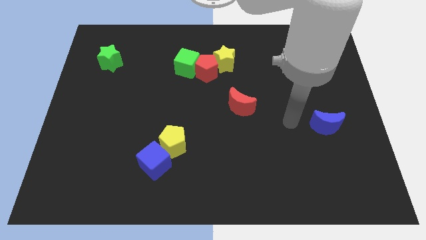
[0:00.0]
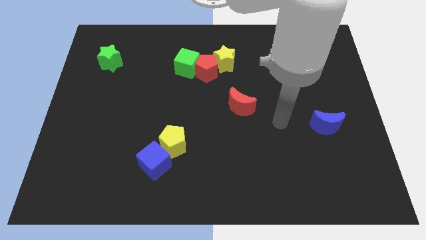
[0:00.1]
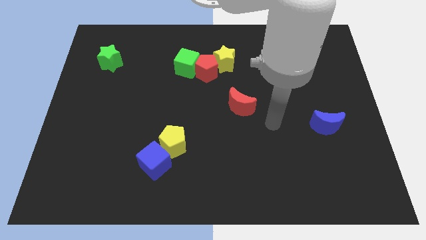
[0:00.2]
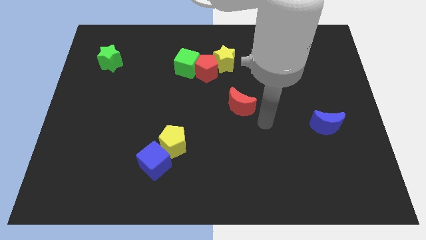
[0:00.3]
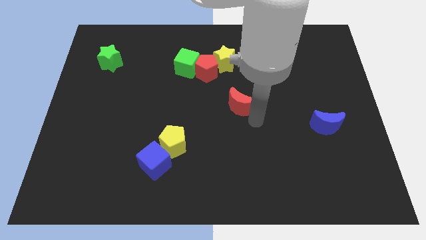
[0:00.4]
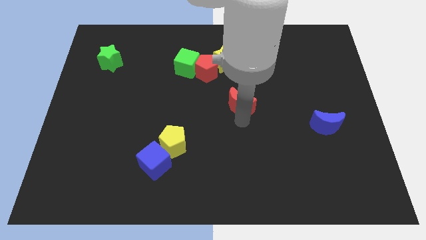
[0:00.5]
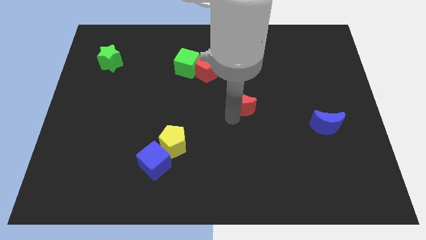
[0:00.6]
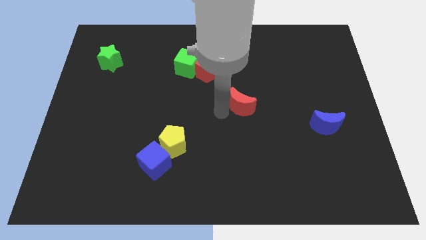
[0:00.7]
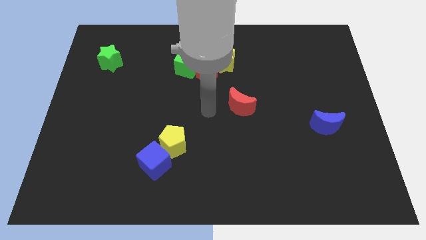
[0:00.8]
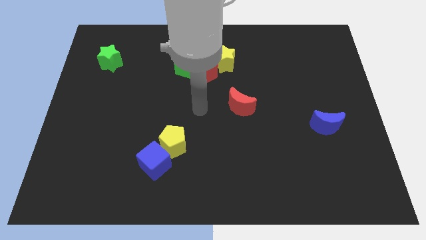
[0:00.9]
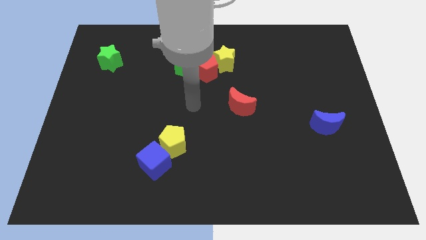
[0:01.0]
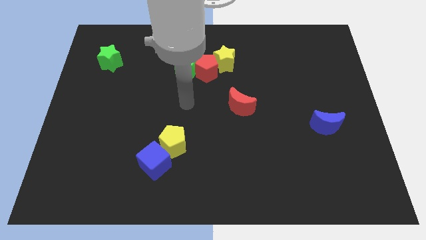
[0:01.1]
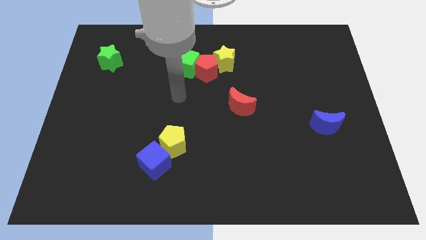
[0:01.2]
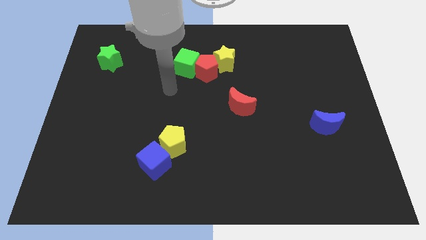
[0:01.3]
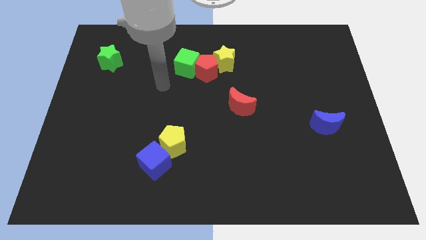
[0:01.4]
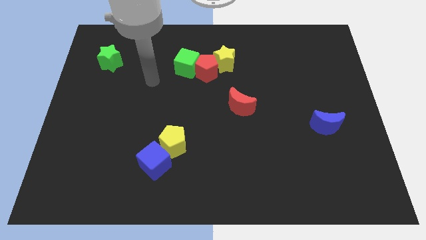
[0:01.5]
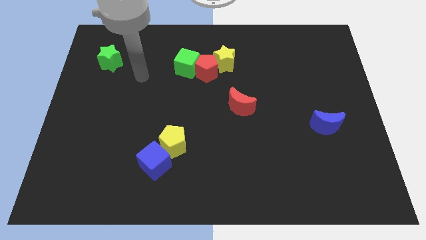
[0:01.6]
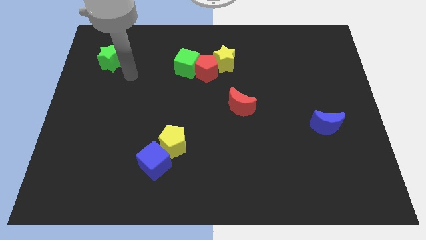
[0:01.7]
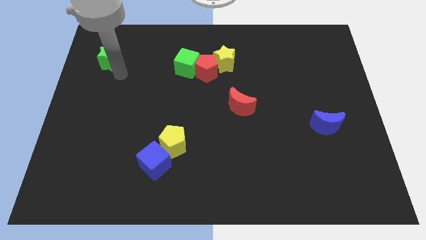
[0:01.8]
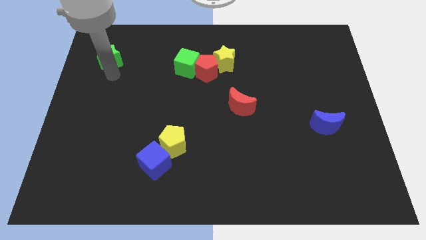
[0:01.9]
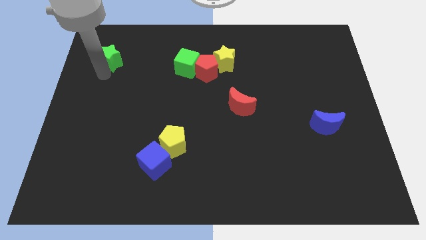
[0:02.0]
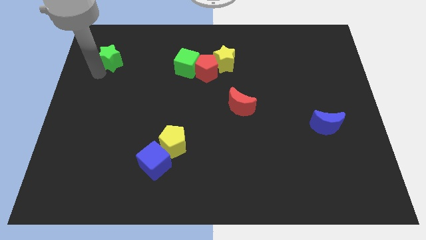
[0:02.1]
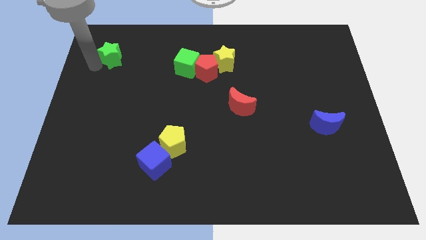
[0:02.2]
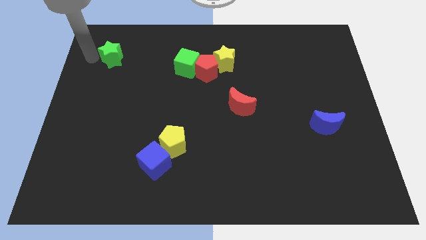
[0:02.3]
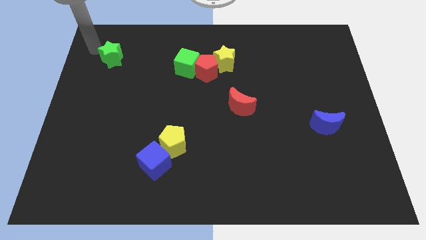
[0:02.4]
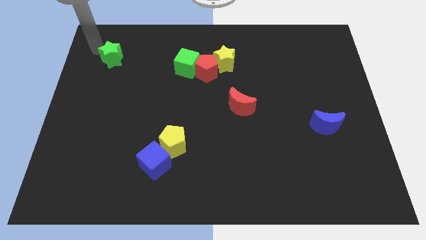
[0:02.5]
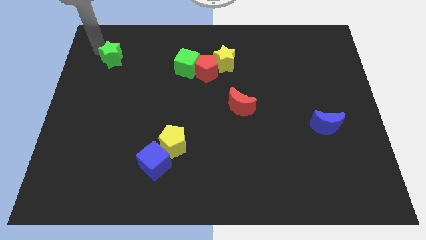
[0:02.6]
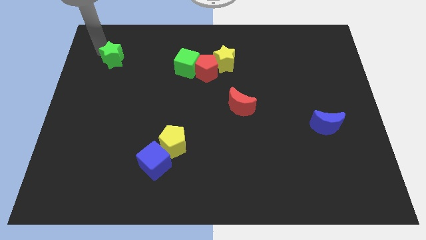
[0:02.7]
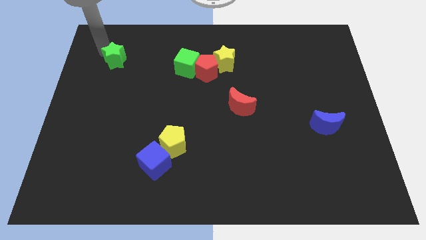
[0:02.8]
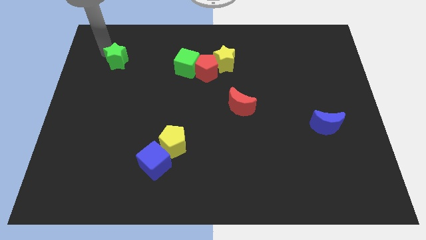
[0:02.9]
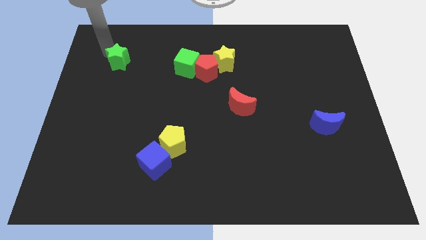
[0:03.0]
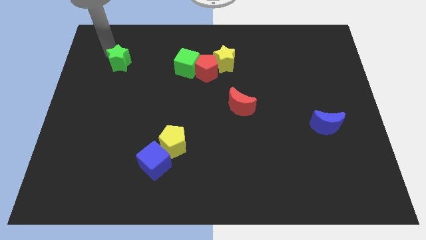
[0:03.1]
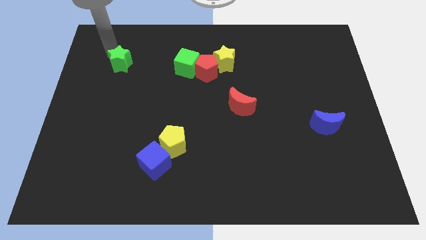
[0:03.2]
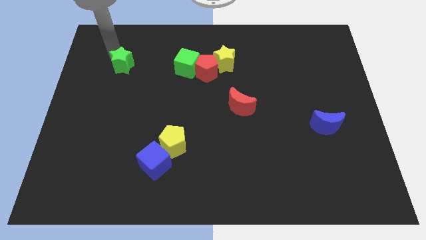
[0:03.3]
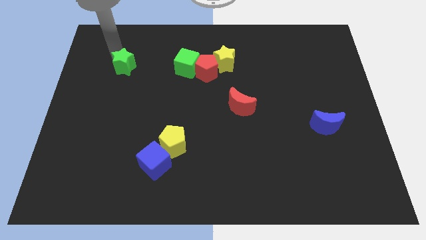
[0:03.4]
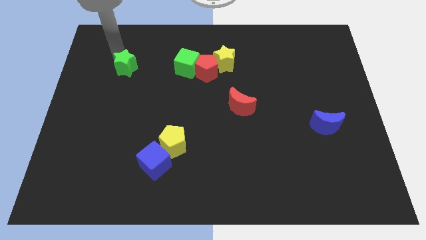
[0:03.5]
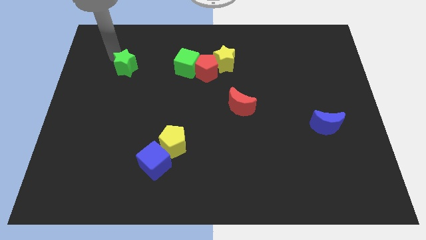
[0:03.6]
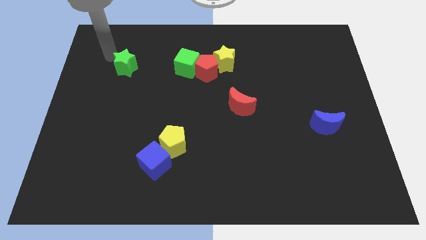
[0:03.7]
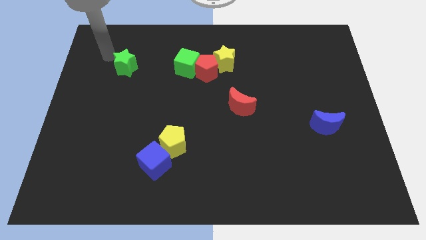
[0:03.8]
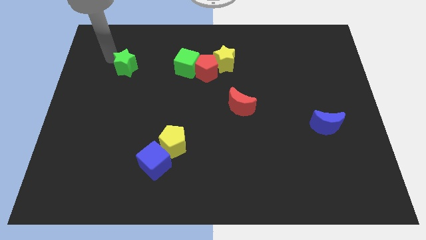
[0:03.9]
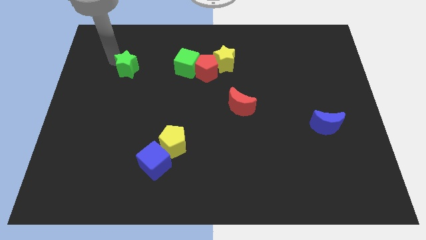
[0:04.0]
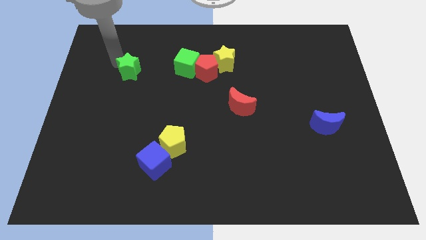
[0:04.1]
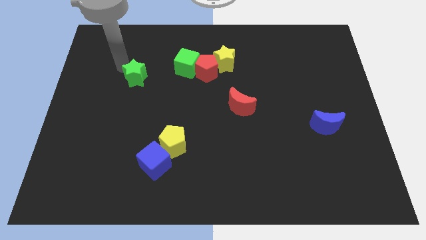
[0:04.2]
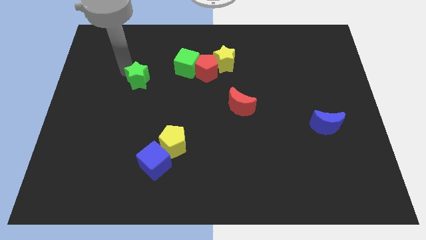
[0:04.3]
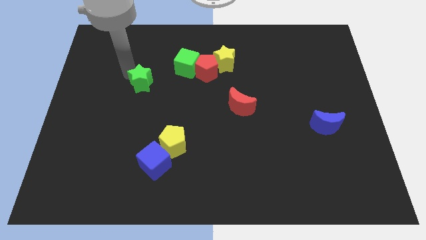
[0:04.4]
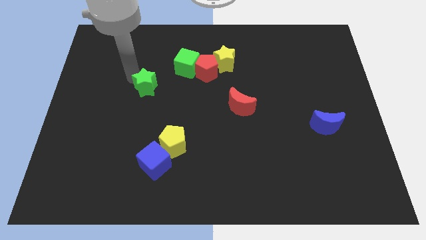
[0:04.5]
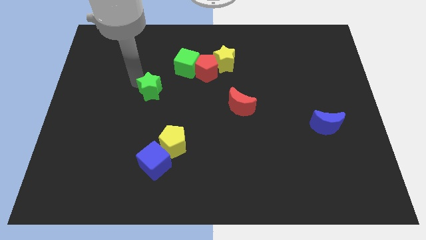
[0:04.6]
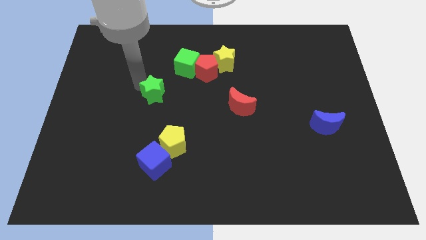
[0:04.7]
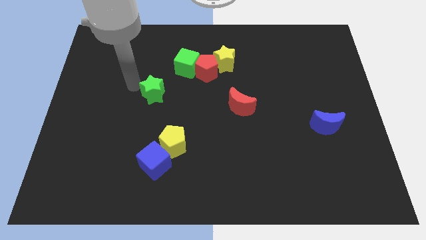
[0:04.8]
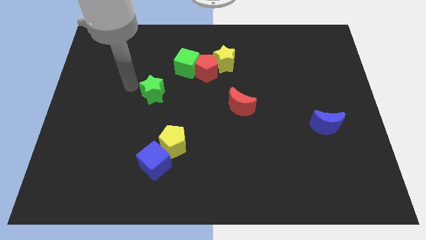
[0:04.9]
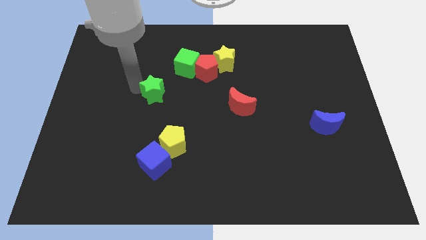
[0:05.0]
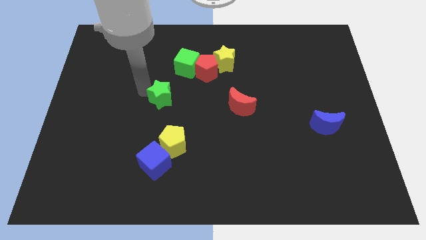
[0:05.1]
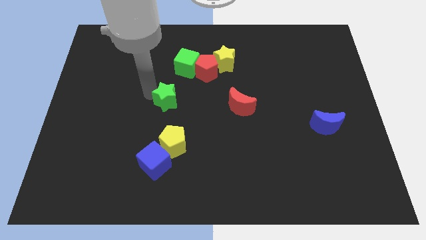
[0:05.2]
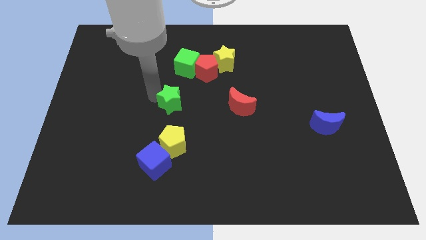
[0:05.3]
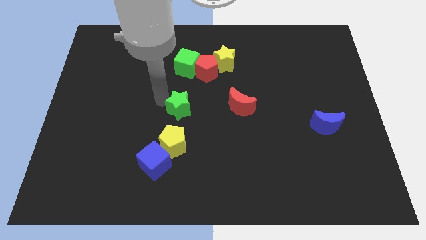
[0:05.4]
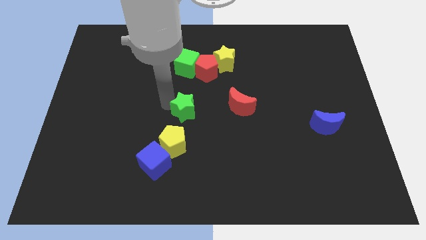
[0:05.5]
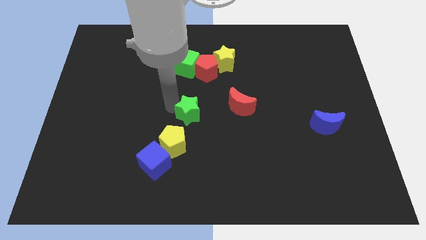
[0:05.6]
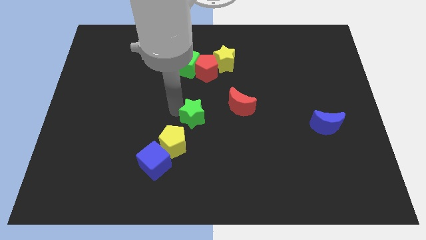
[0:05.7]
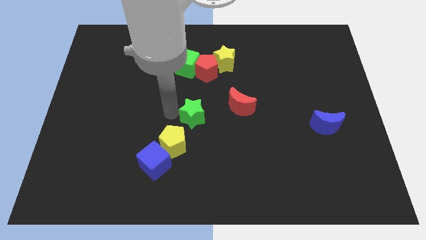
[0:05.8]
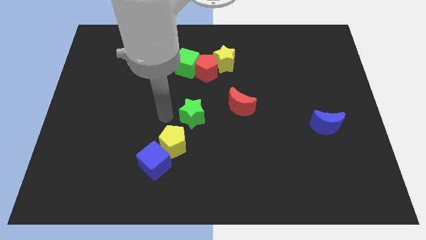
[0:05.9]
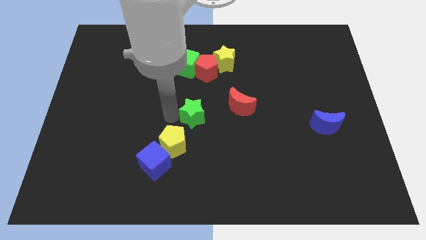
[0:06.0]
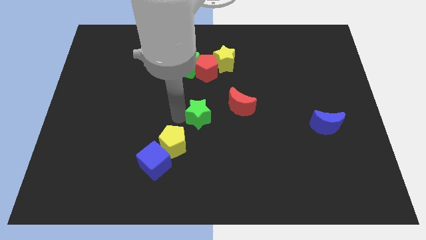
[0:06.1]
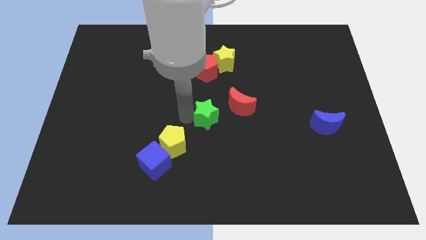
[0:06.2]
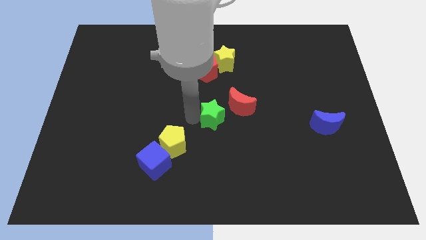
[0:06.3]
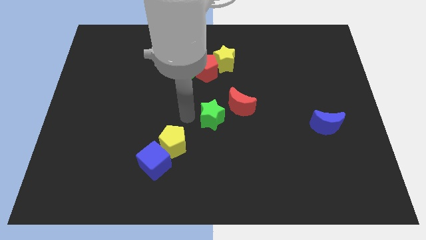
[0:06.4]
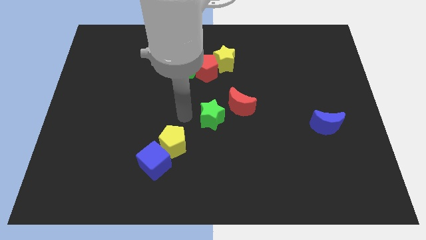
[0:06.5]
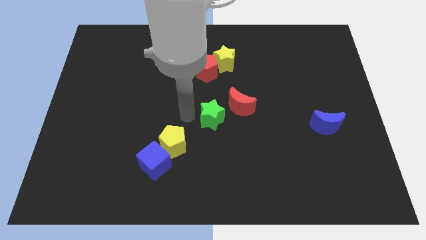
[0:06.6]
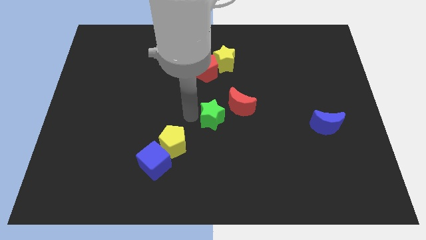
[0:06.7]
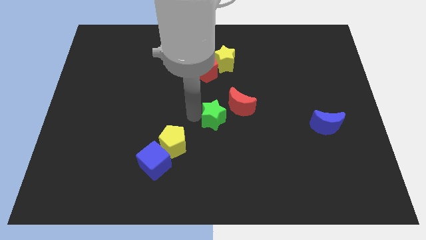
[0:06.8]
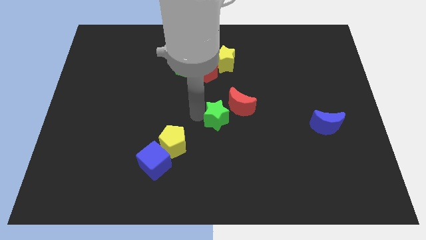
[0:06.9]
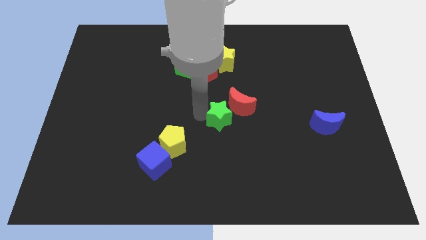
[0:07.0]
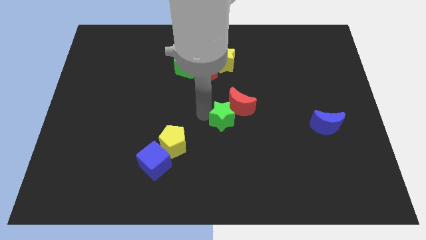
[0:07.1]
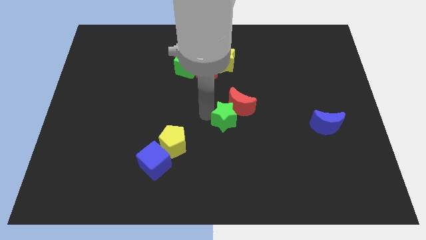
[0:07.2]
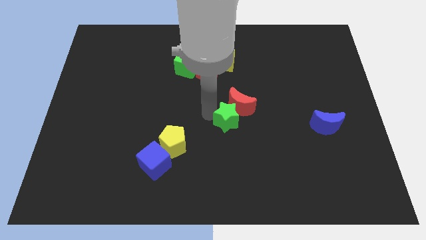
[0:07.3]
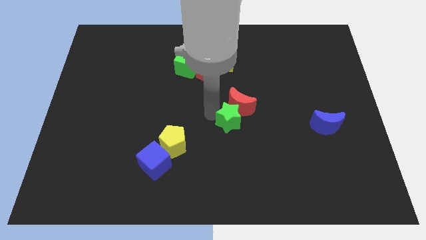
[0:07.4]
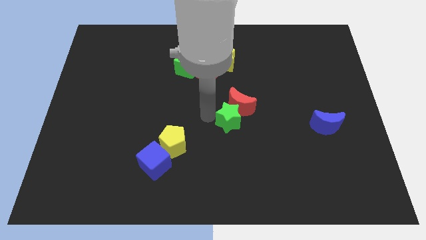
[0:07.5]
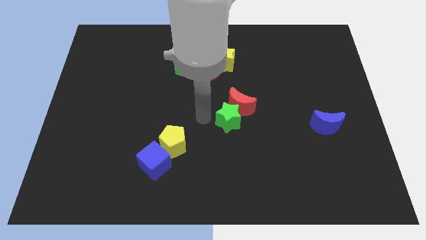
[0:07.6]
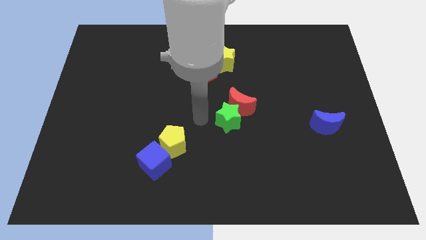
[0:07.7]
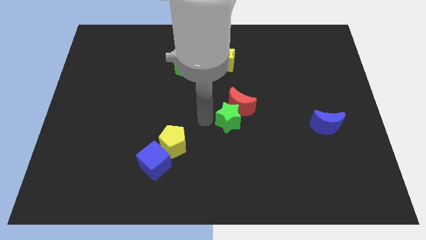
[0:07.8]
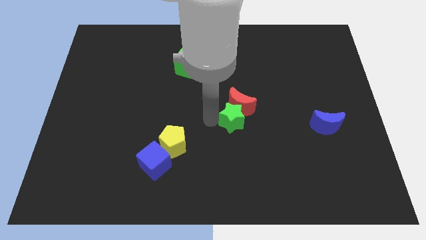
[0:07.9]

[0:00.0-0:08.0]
slide the green star diagonally down and to the right of the red moon
